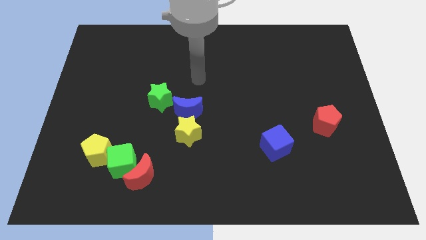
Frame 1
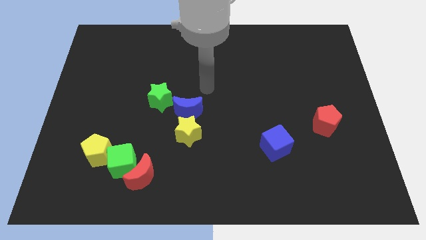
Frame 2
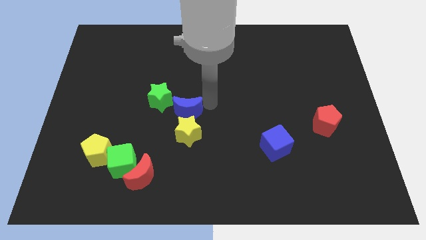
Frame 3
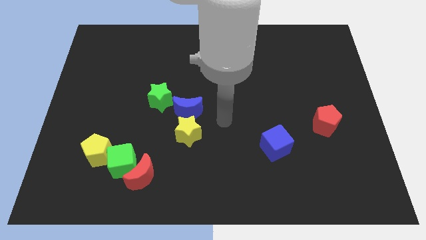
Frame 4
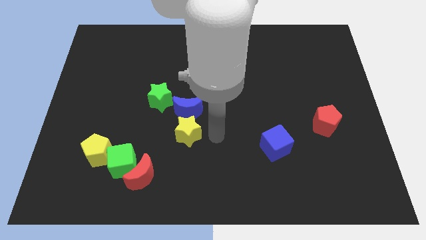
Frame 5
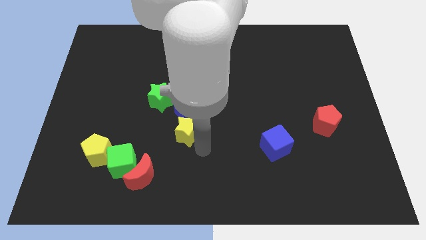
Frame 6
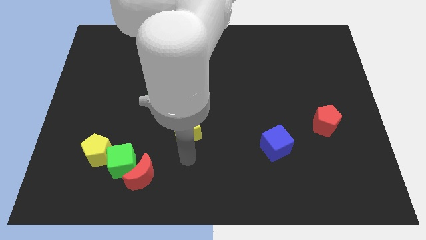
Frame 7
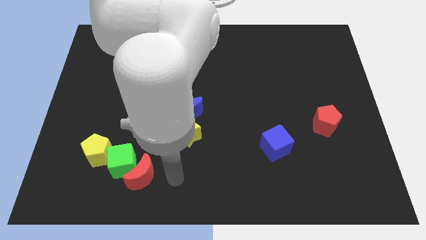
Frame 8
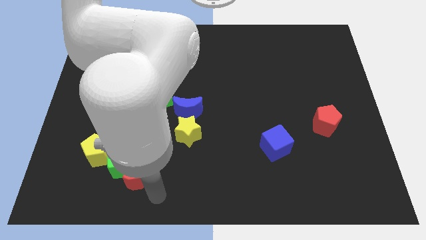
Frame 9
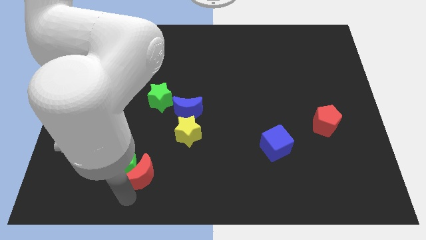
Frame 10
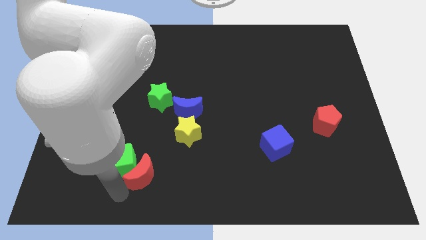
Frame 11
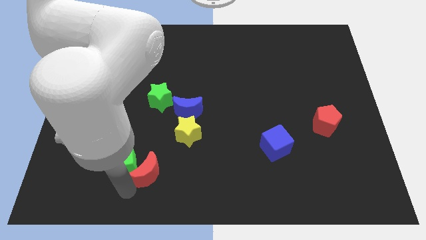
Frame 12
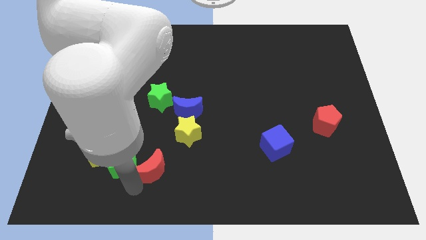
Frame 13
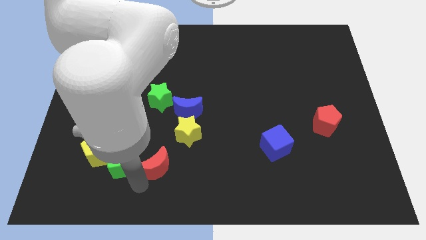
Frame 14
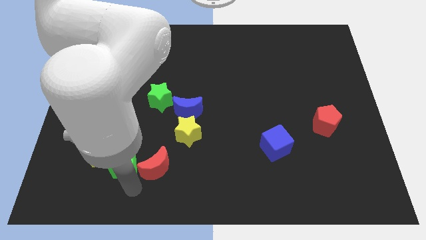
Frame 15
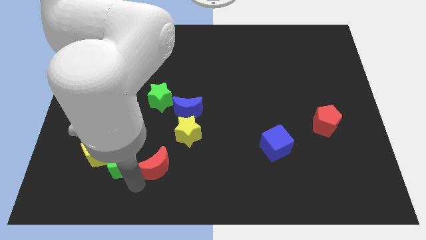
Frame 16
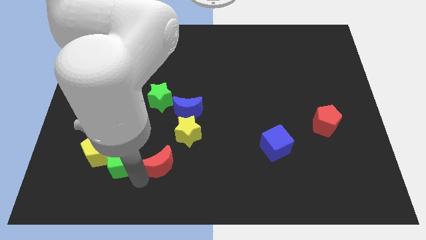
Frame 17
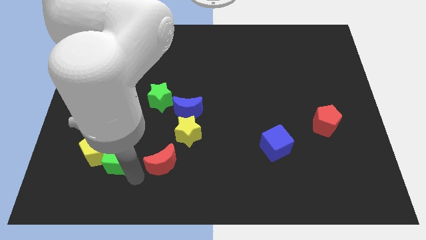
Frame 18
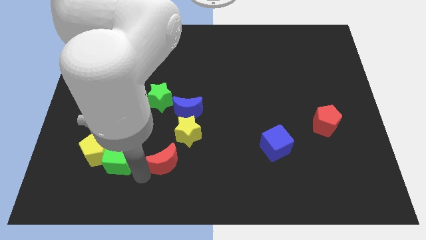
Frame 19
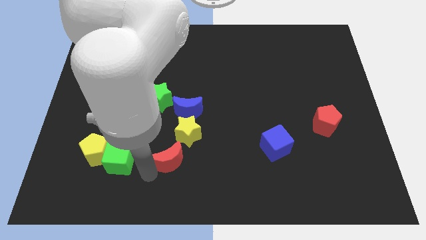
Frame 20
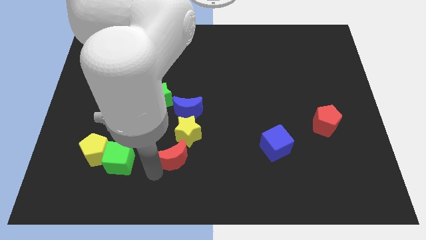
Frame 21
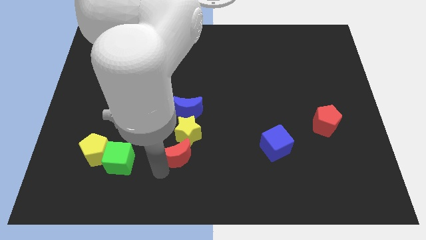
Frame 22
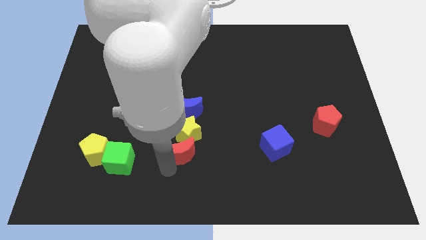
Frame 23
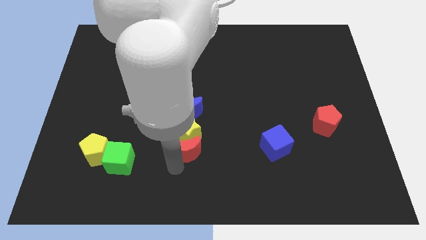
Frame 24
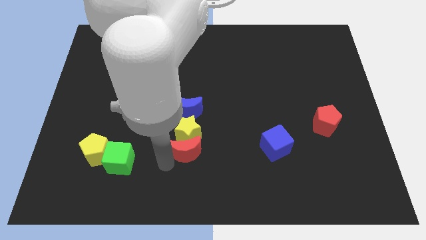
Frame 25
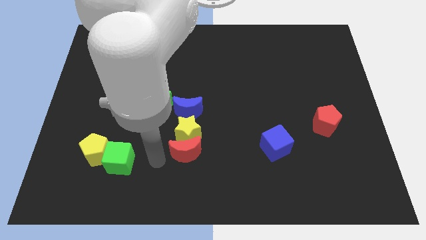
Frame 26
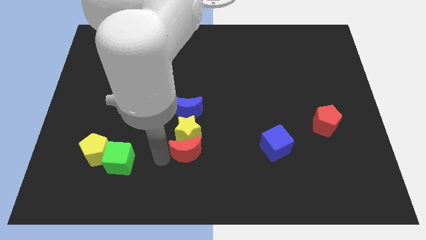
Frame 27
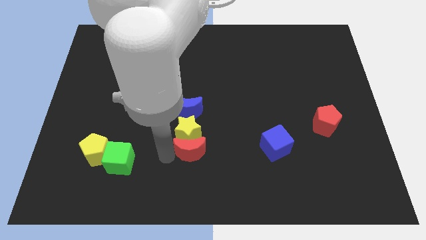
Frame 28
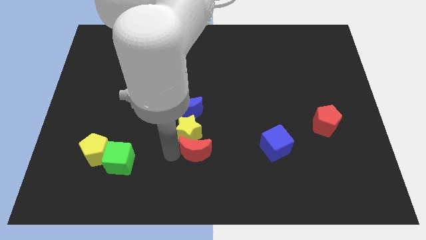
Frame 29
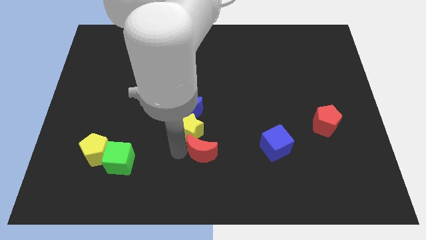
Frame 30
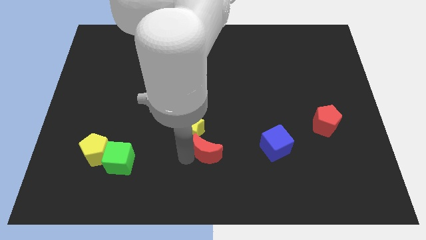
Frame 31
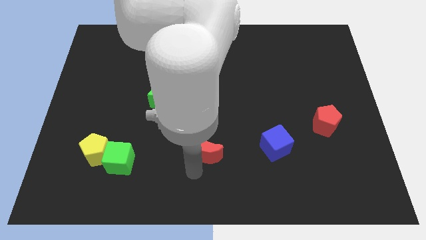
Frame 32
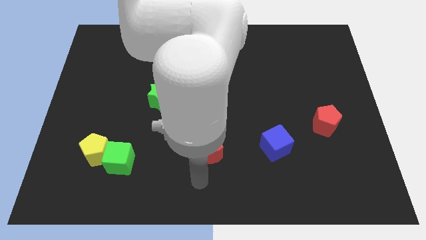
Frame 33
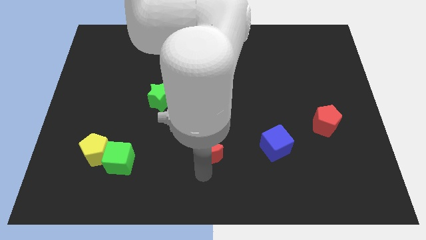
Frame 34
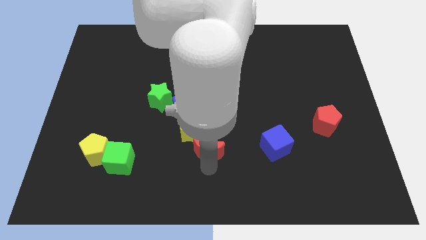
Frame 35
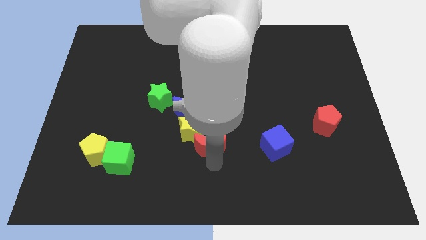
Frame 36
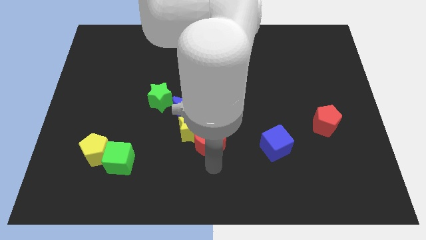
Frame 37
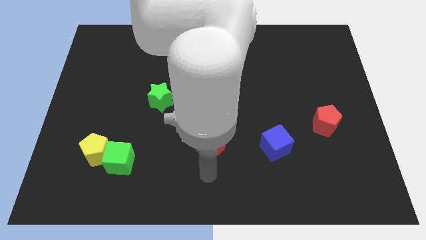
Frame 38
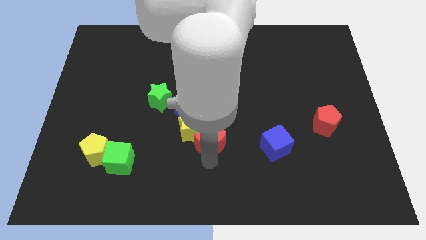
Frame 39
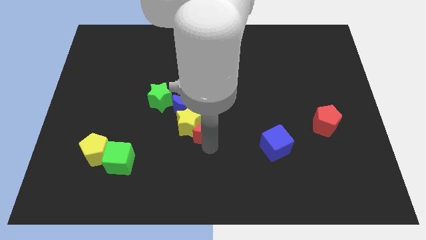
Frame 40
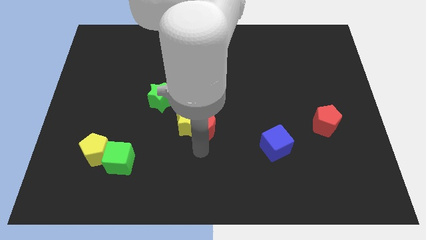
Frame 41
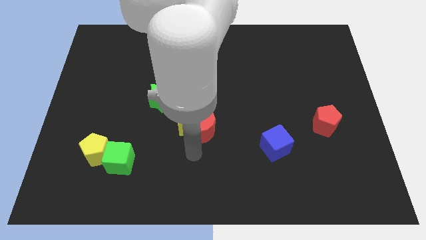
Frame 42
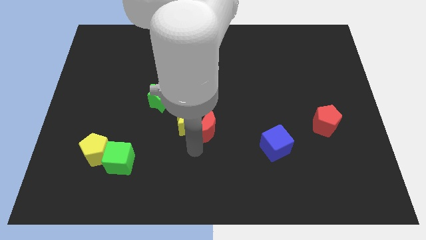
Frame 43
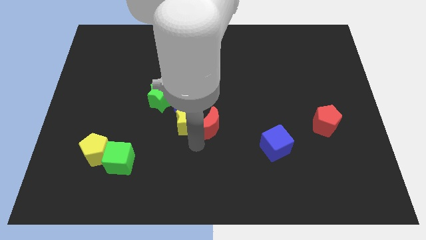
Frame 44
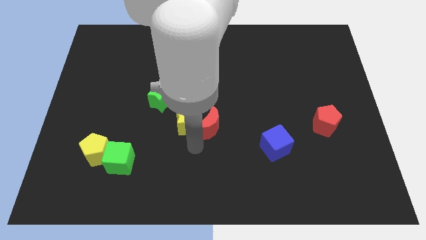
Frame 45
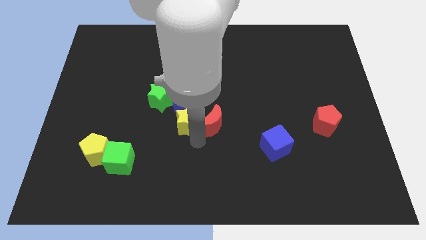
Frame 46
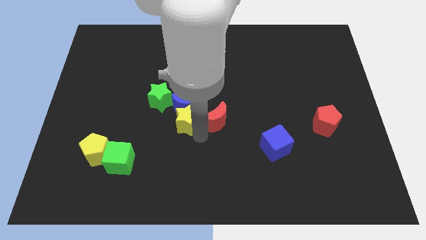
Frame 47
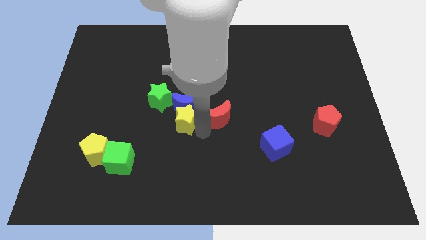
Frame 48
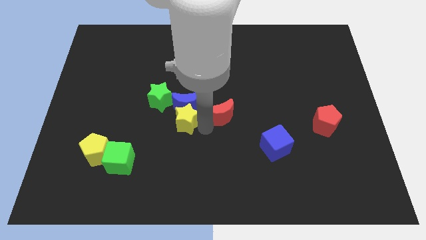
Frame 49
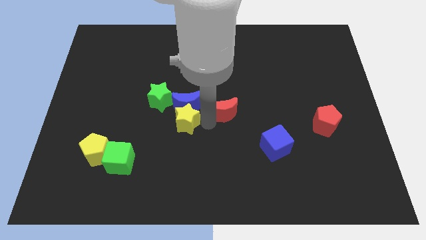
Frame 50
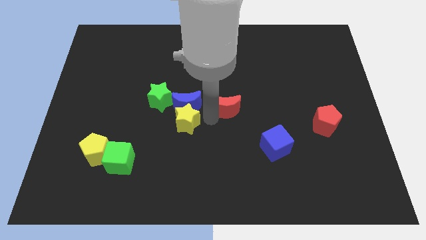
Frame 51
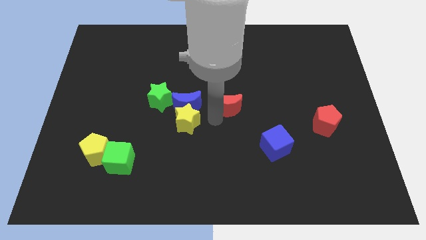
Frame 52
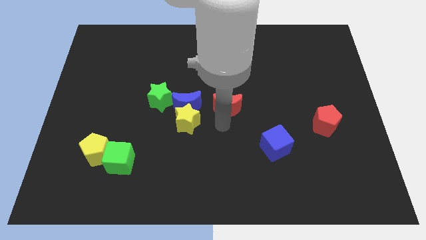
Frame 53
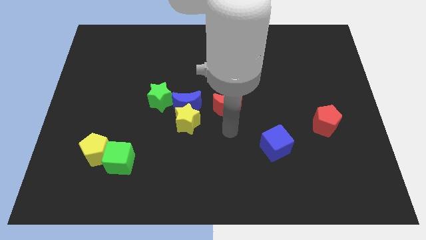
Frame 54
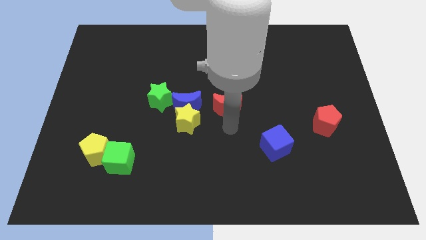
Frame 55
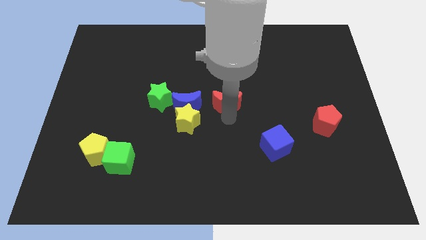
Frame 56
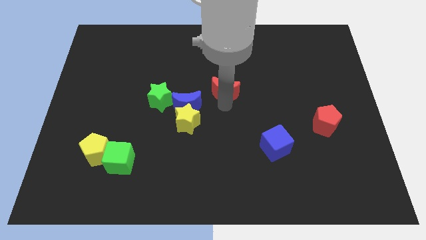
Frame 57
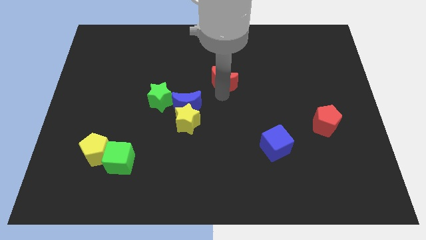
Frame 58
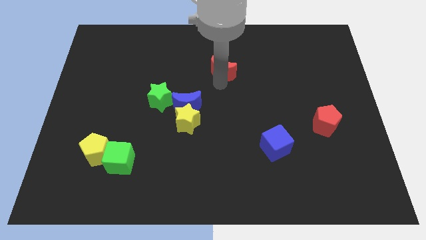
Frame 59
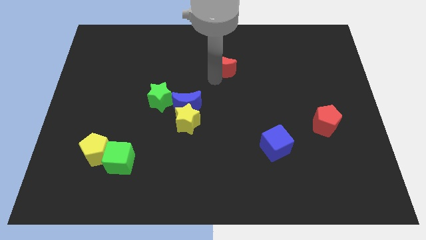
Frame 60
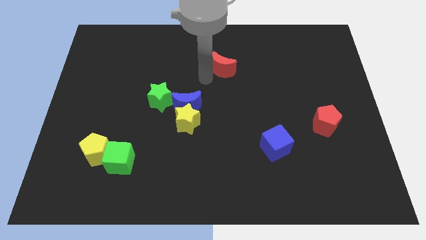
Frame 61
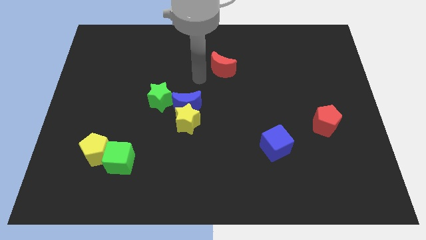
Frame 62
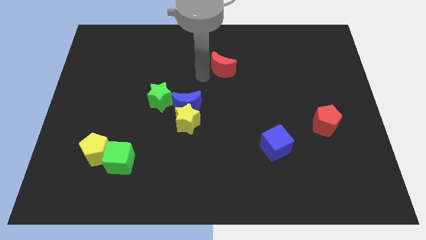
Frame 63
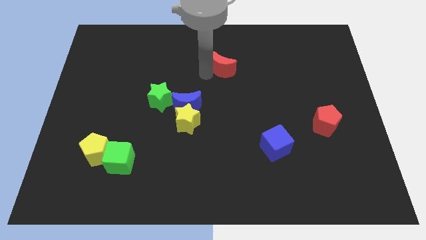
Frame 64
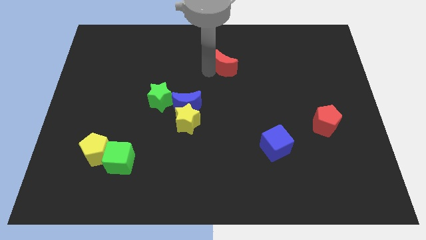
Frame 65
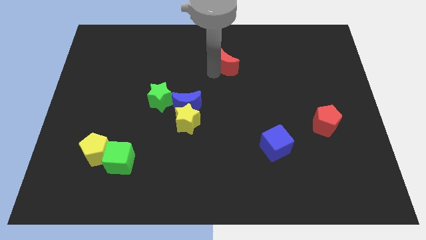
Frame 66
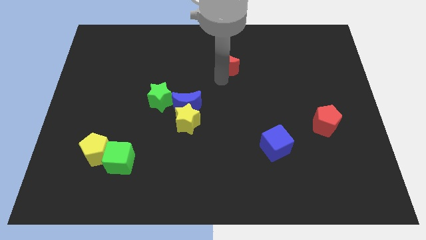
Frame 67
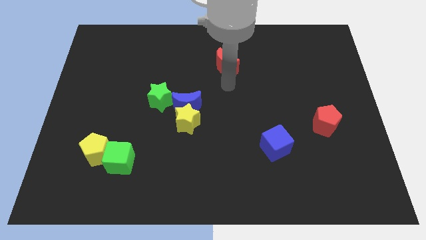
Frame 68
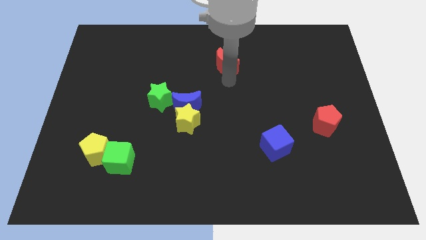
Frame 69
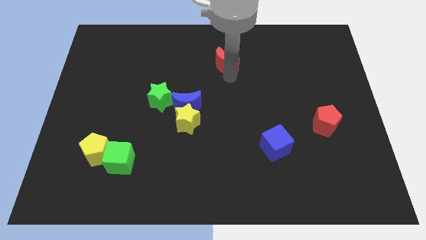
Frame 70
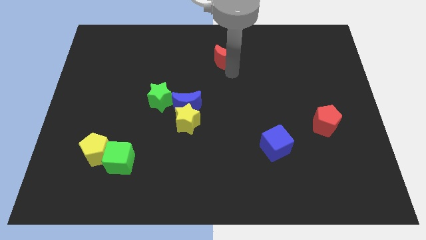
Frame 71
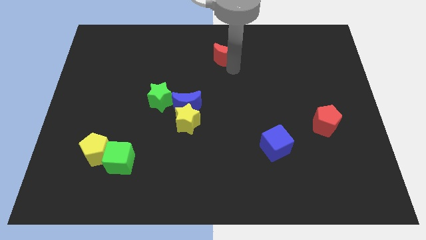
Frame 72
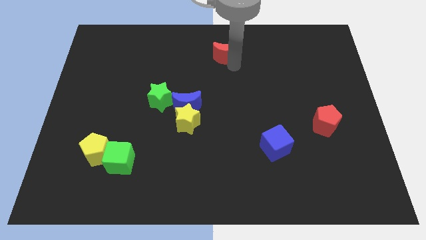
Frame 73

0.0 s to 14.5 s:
push the red moon to the top side
